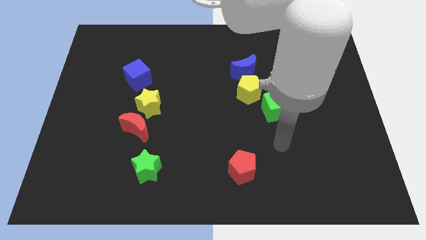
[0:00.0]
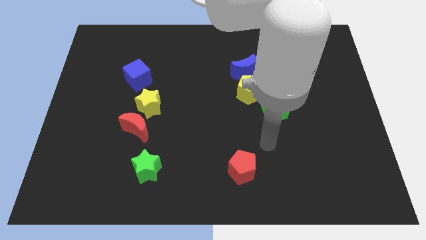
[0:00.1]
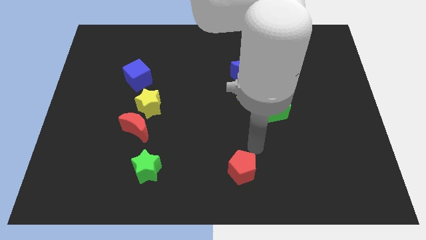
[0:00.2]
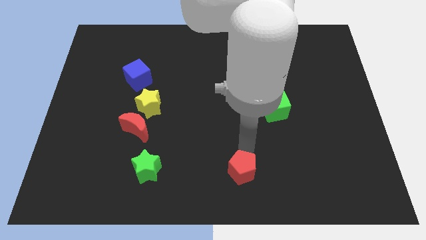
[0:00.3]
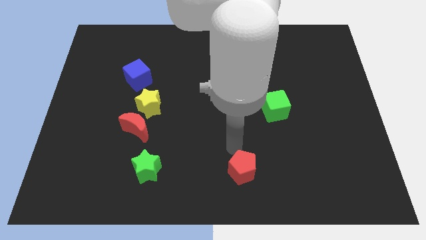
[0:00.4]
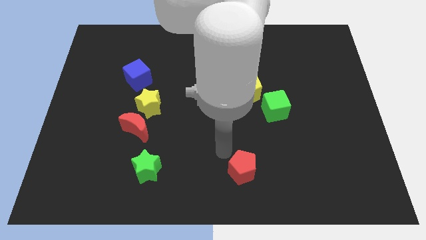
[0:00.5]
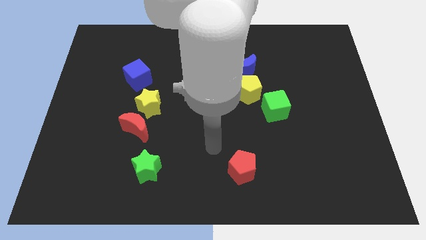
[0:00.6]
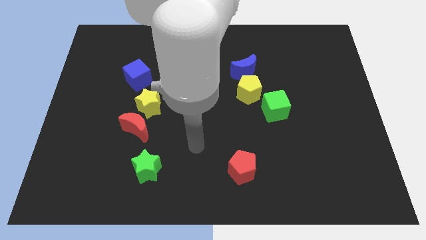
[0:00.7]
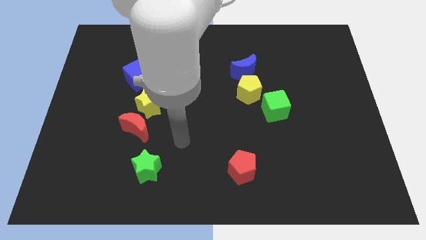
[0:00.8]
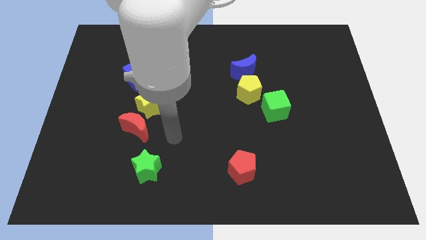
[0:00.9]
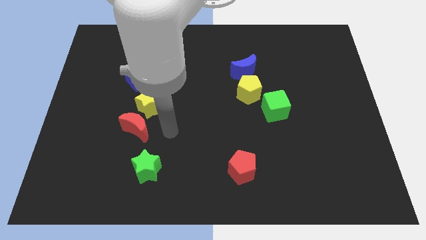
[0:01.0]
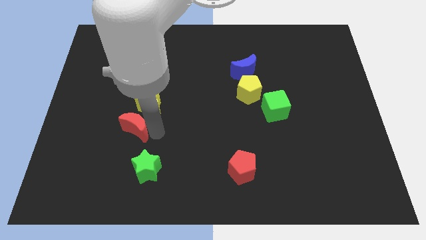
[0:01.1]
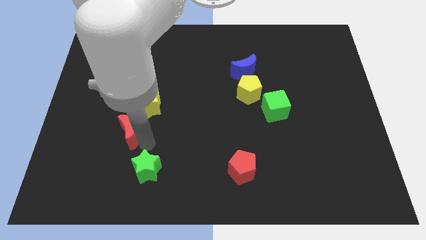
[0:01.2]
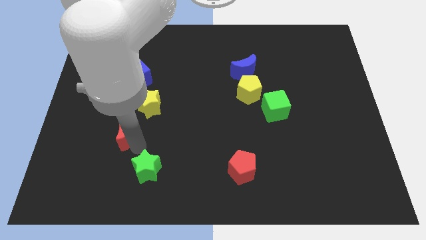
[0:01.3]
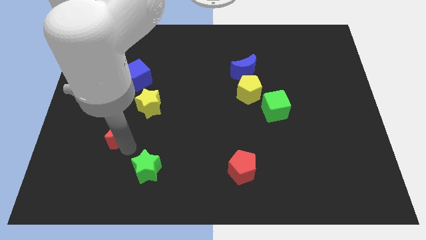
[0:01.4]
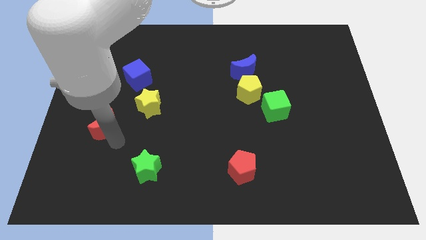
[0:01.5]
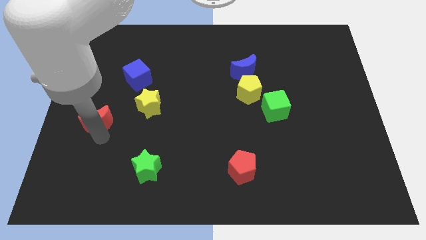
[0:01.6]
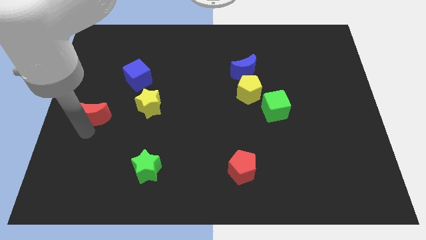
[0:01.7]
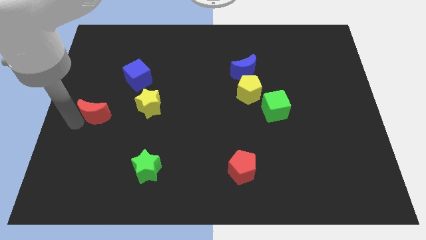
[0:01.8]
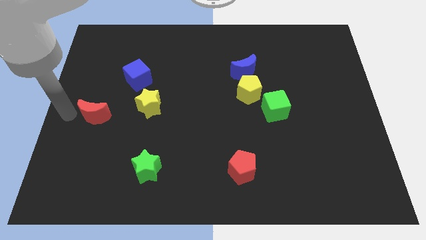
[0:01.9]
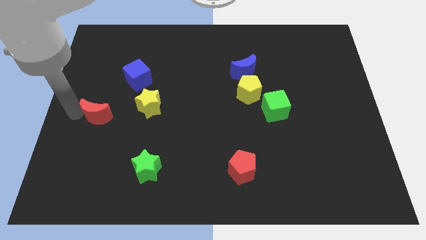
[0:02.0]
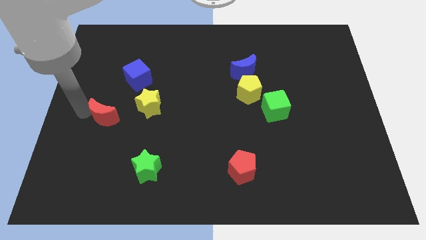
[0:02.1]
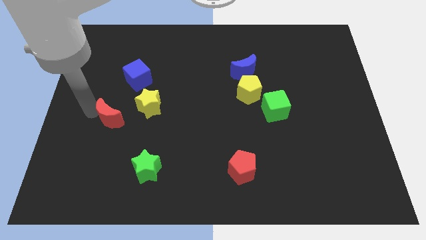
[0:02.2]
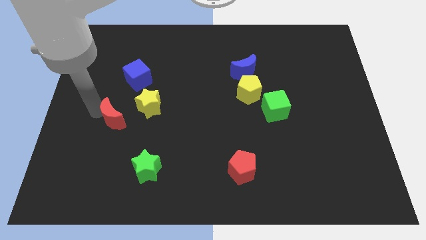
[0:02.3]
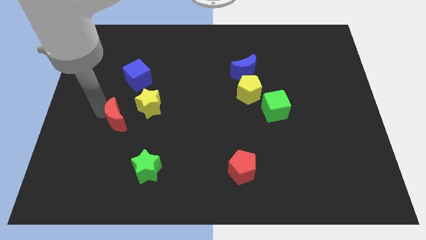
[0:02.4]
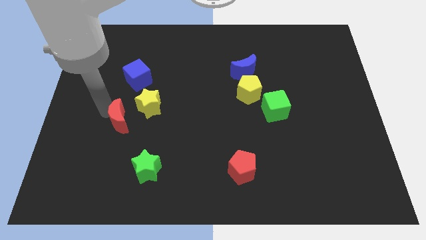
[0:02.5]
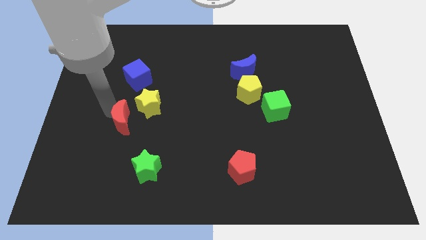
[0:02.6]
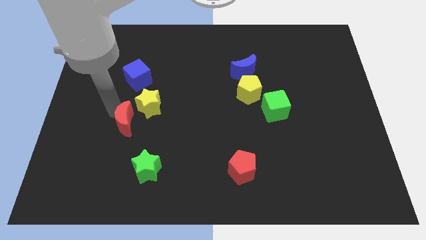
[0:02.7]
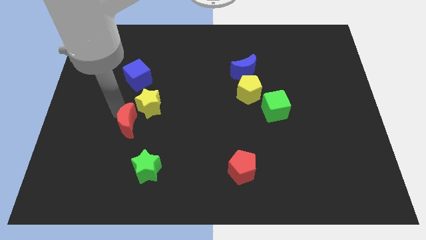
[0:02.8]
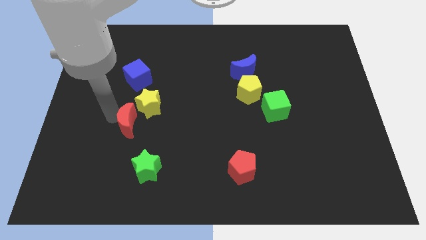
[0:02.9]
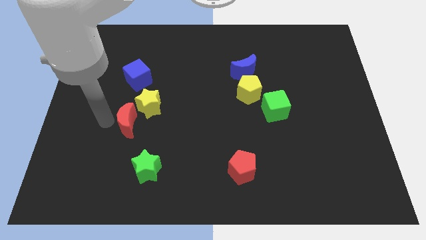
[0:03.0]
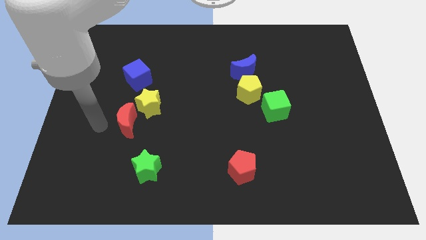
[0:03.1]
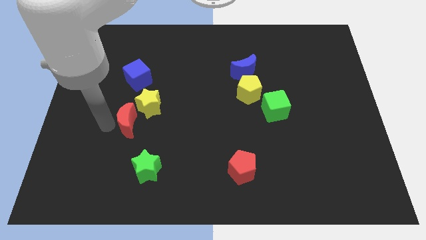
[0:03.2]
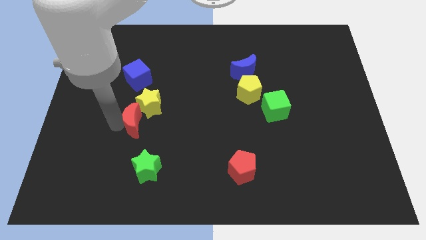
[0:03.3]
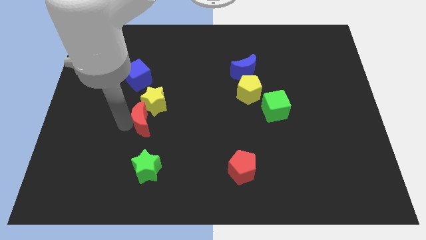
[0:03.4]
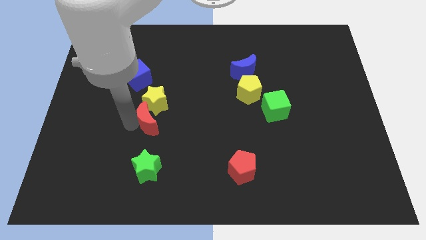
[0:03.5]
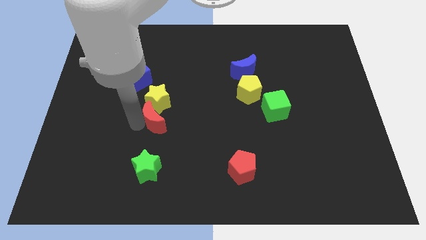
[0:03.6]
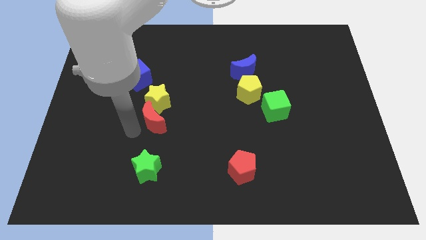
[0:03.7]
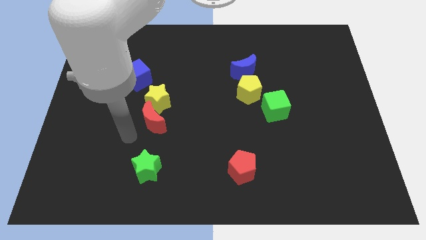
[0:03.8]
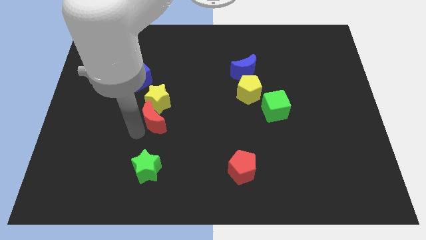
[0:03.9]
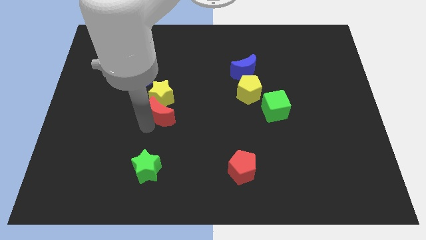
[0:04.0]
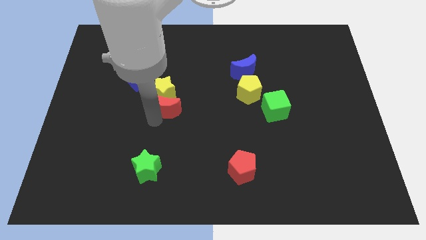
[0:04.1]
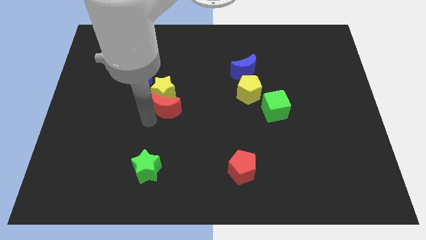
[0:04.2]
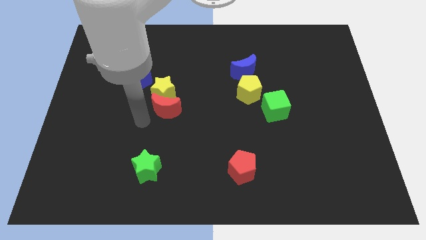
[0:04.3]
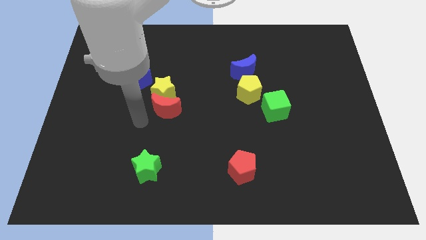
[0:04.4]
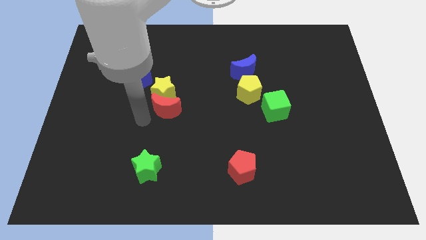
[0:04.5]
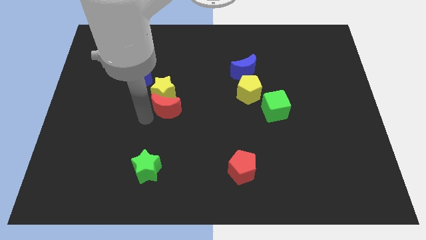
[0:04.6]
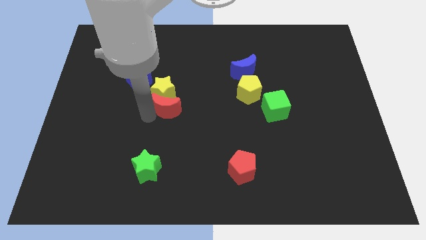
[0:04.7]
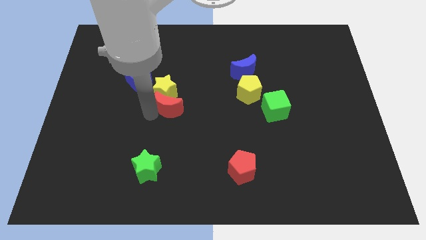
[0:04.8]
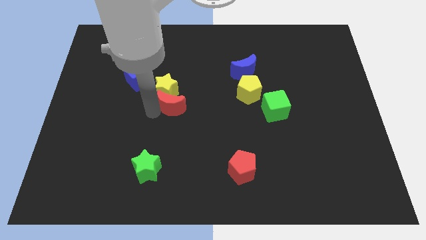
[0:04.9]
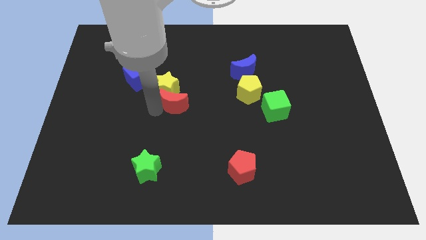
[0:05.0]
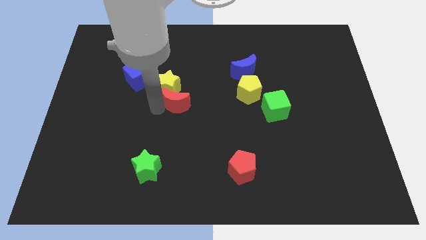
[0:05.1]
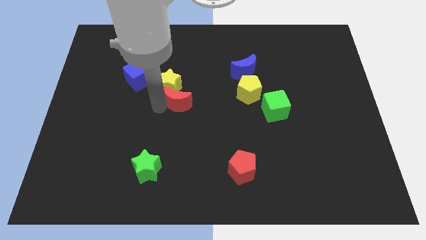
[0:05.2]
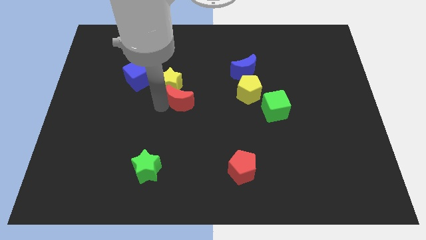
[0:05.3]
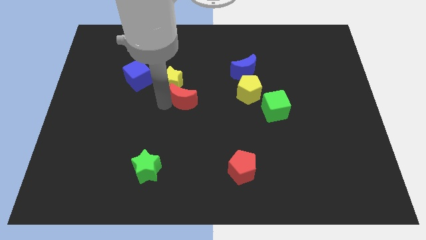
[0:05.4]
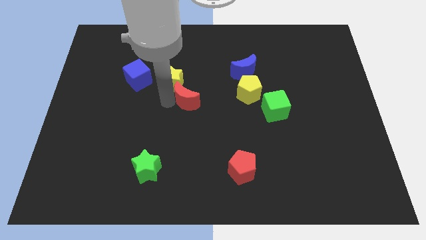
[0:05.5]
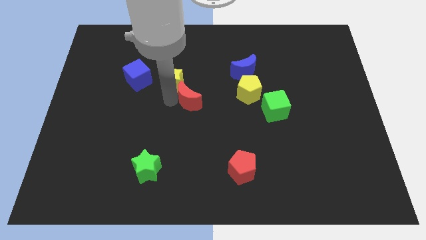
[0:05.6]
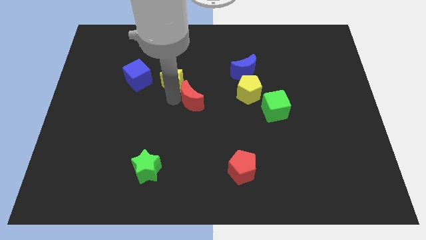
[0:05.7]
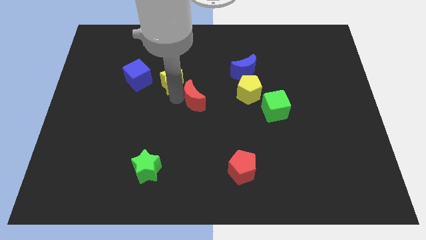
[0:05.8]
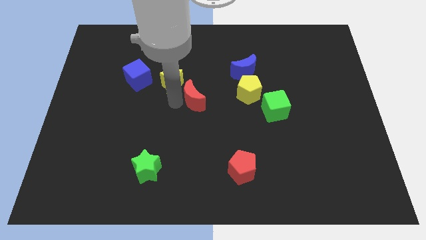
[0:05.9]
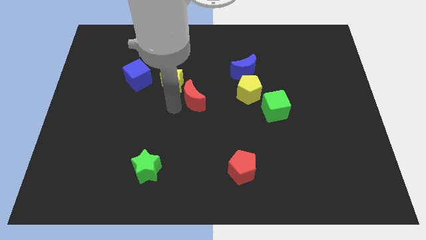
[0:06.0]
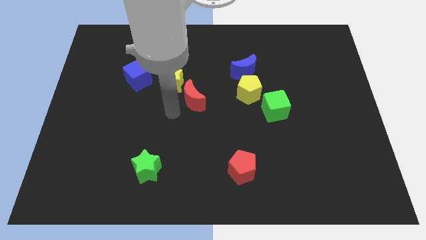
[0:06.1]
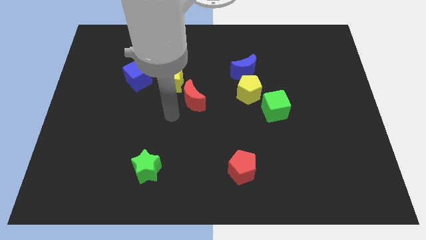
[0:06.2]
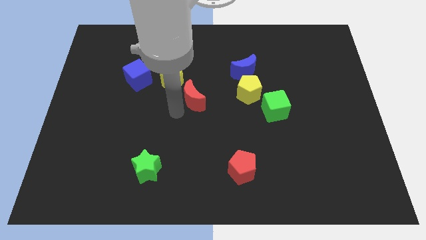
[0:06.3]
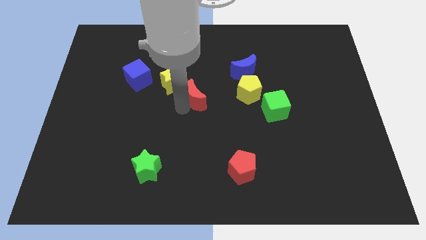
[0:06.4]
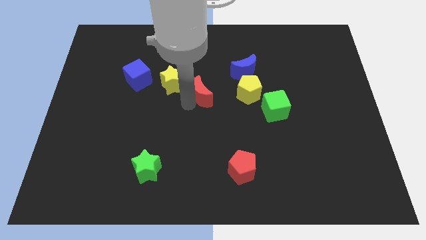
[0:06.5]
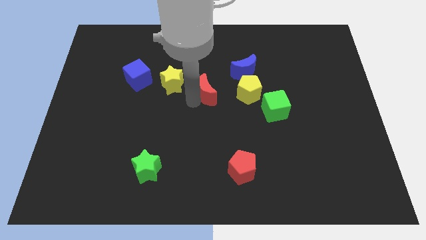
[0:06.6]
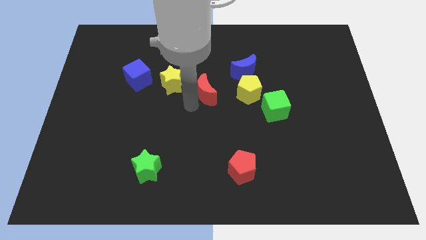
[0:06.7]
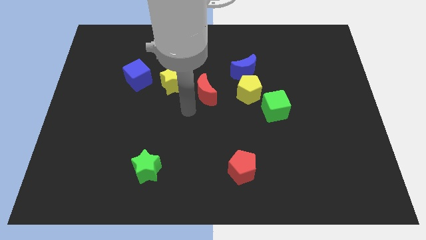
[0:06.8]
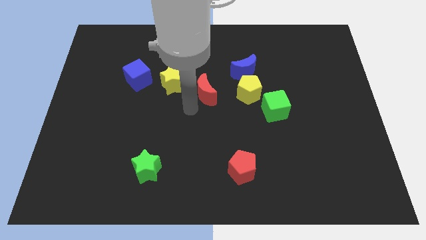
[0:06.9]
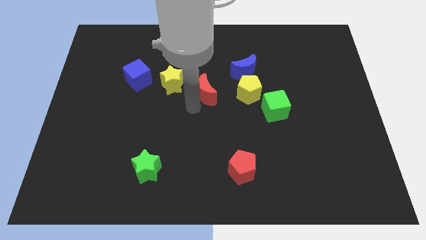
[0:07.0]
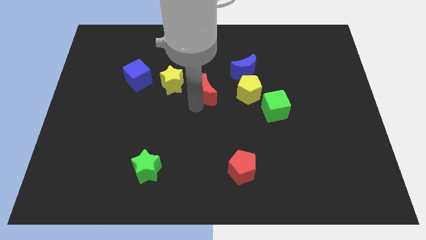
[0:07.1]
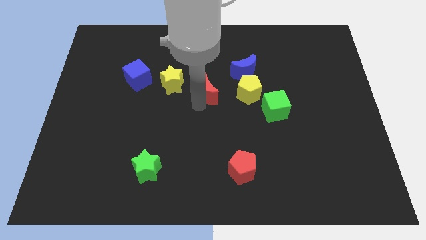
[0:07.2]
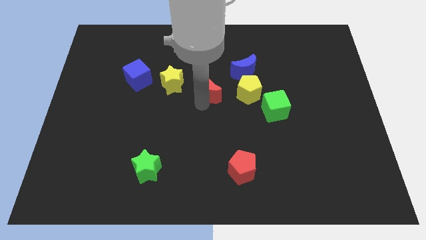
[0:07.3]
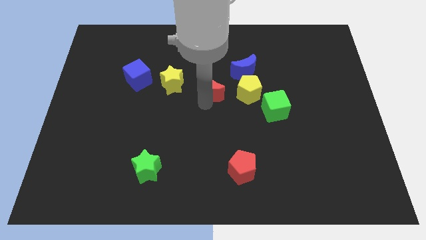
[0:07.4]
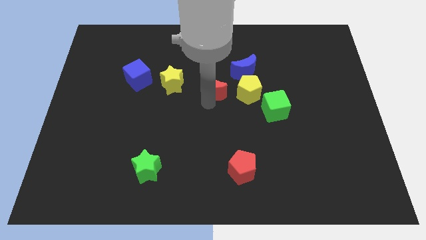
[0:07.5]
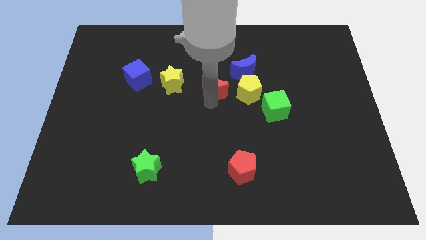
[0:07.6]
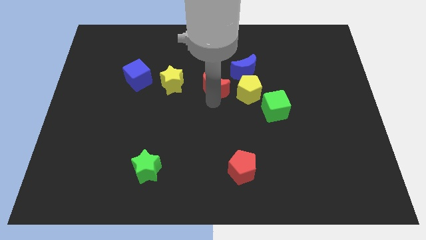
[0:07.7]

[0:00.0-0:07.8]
push the red moon up and right

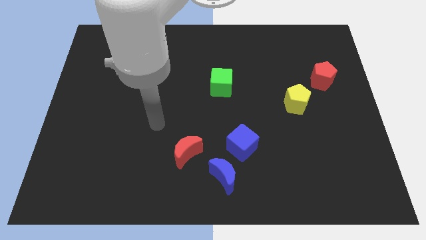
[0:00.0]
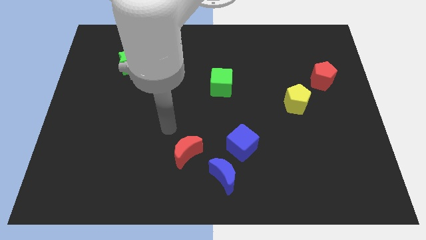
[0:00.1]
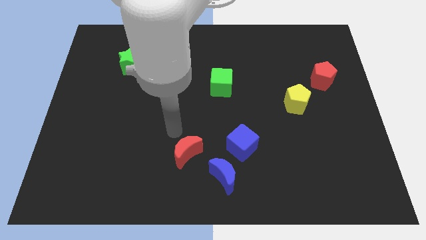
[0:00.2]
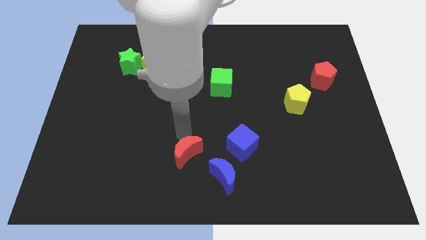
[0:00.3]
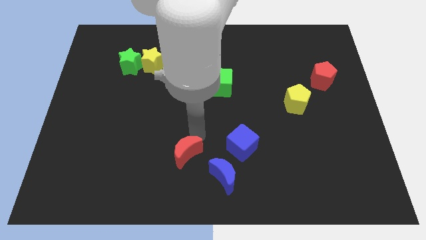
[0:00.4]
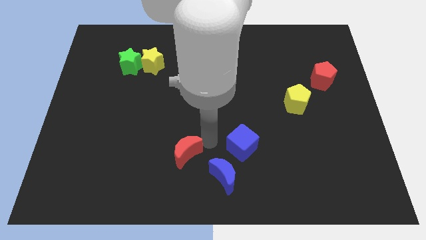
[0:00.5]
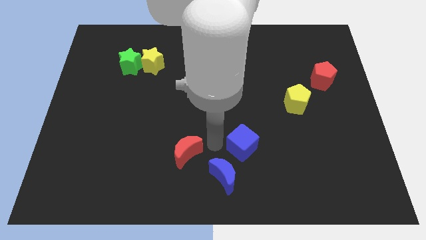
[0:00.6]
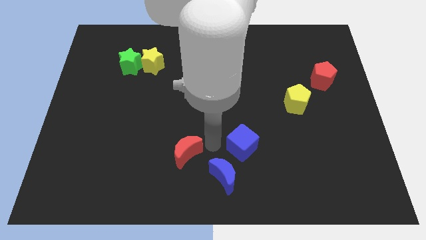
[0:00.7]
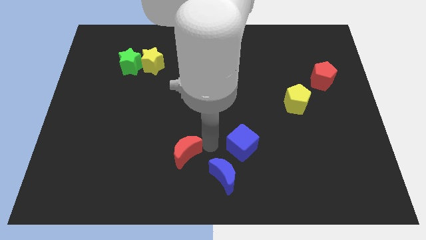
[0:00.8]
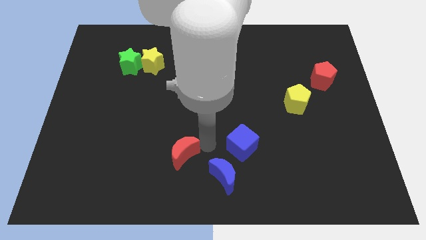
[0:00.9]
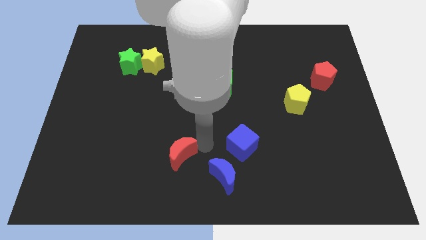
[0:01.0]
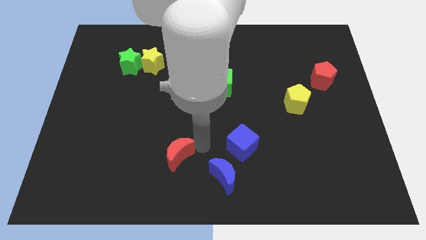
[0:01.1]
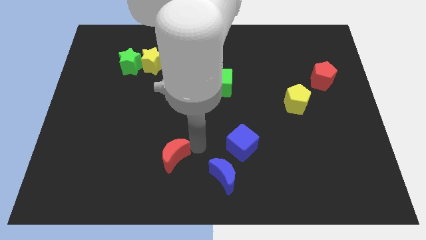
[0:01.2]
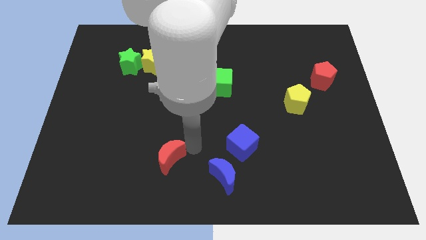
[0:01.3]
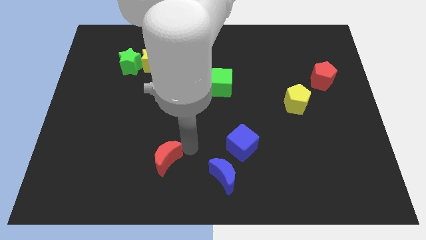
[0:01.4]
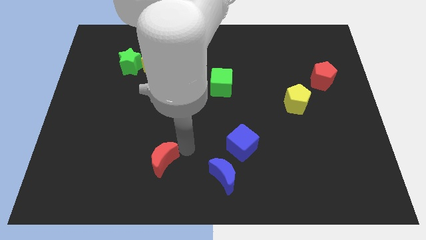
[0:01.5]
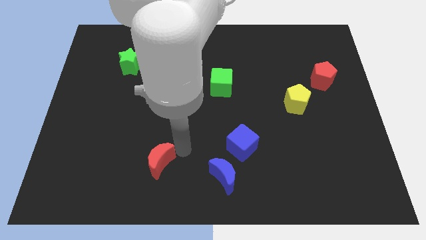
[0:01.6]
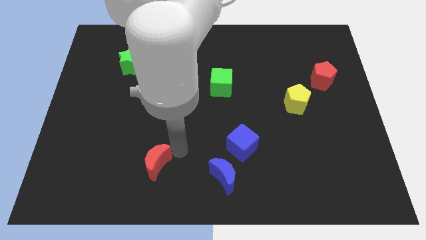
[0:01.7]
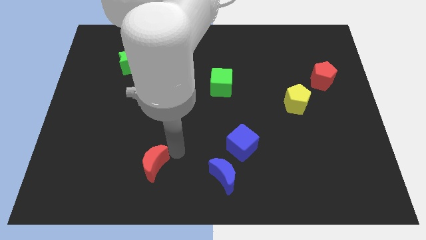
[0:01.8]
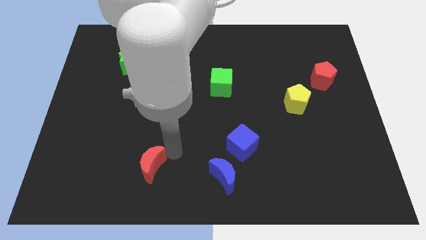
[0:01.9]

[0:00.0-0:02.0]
slightly slide the red moon to the left
